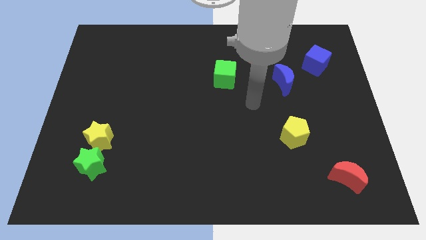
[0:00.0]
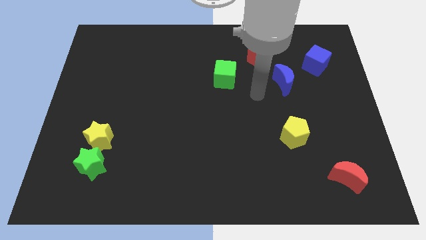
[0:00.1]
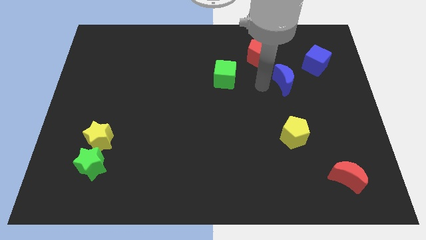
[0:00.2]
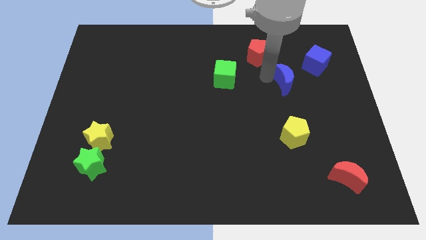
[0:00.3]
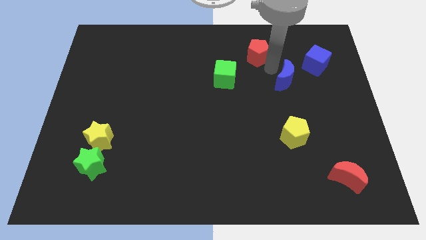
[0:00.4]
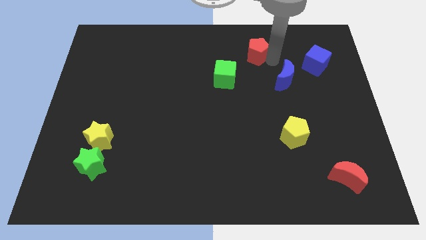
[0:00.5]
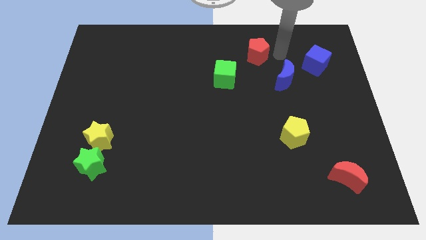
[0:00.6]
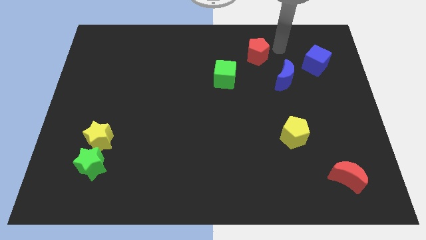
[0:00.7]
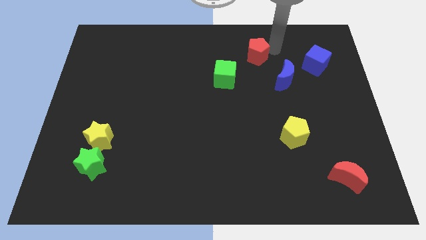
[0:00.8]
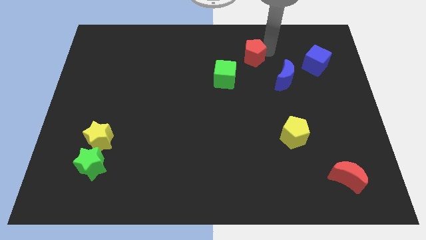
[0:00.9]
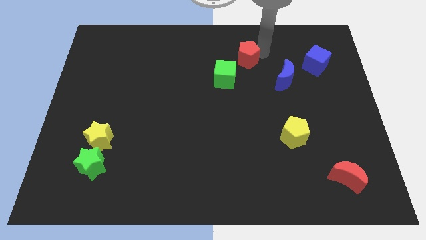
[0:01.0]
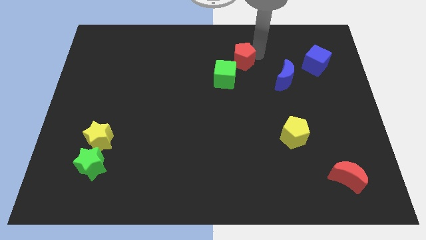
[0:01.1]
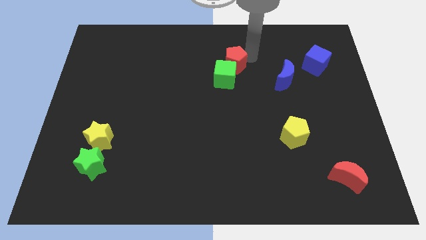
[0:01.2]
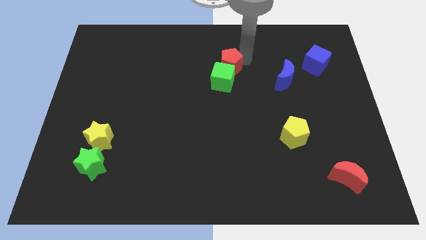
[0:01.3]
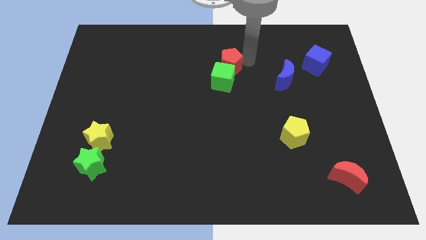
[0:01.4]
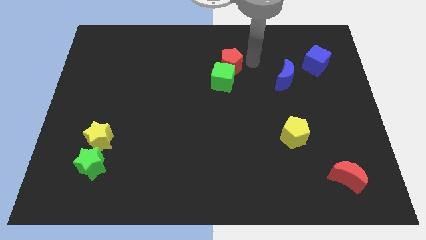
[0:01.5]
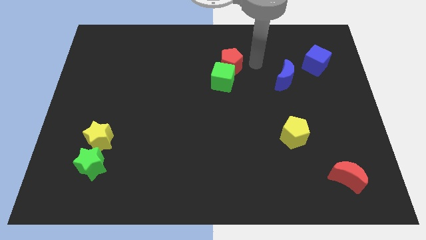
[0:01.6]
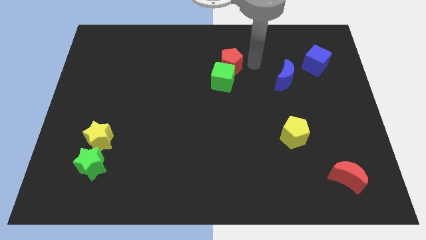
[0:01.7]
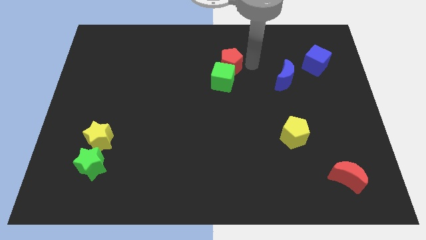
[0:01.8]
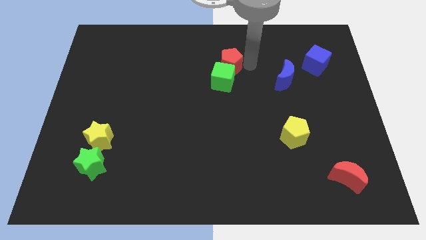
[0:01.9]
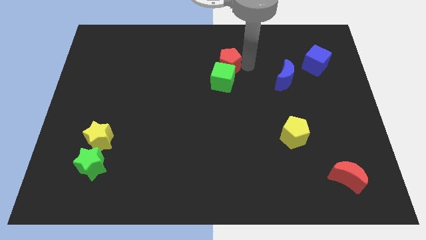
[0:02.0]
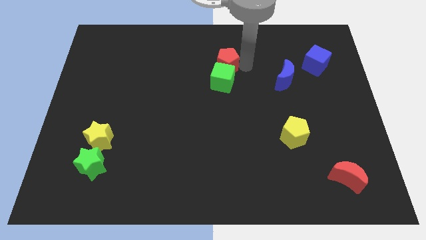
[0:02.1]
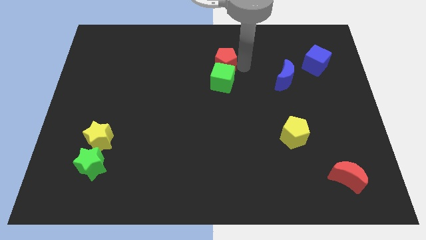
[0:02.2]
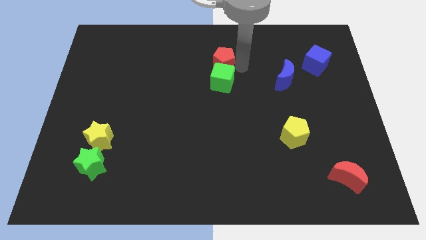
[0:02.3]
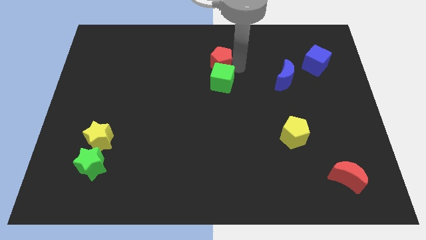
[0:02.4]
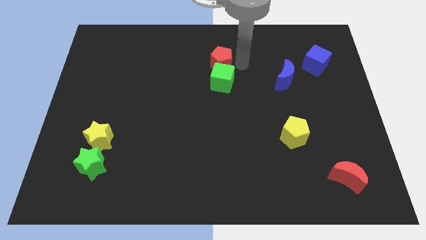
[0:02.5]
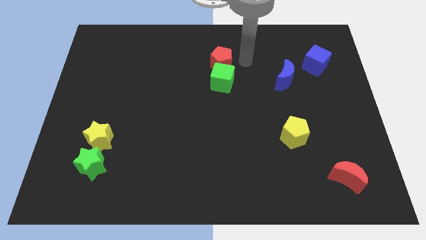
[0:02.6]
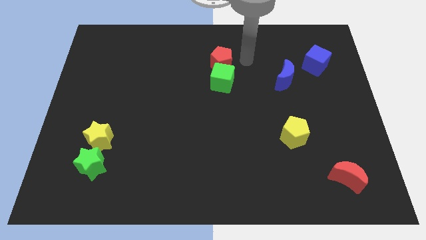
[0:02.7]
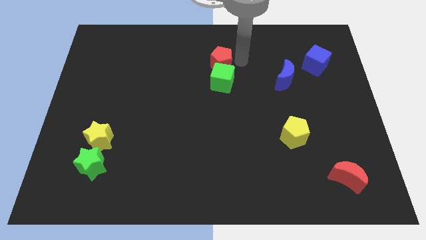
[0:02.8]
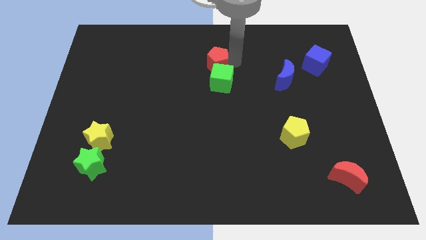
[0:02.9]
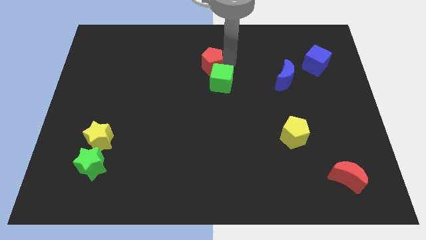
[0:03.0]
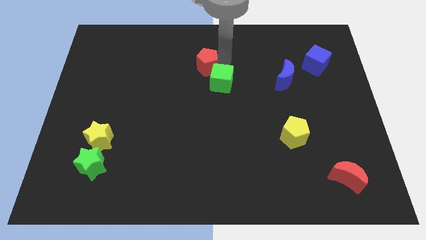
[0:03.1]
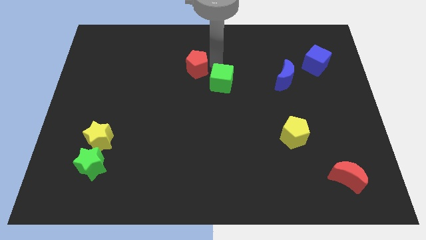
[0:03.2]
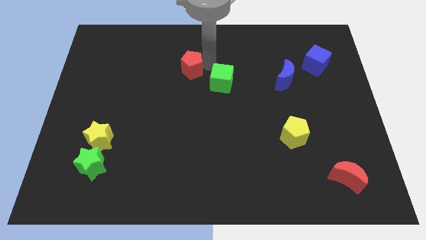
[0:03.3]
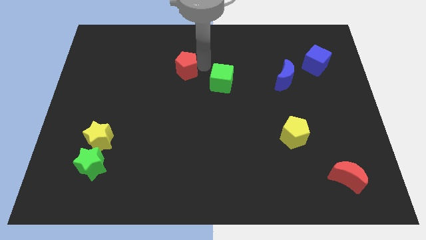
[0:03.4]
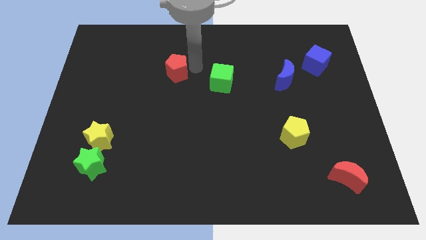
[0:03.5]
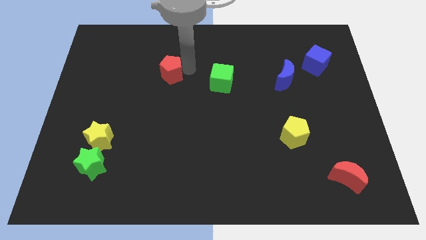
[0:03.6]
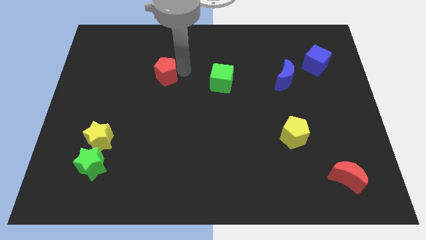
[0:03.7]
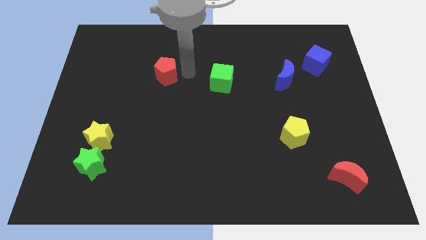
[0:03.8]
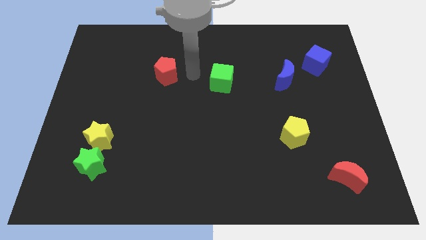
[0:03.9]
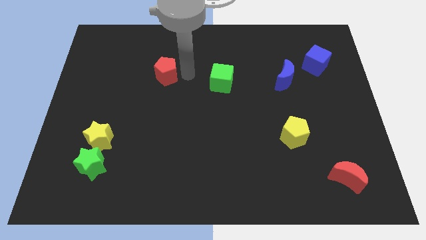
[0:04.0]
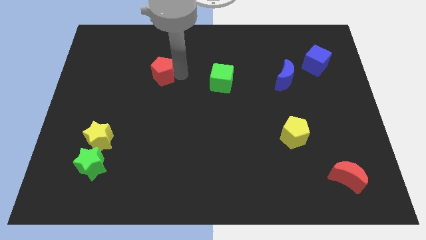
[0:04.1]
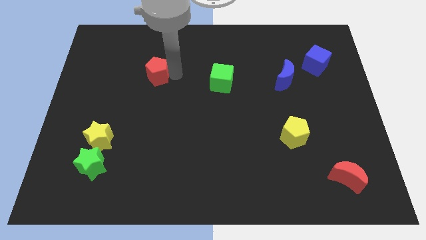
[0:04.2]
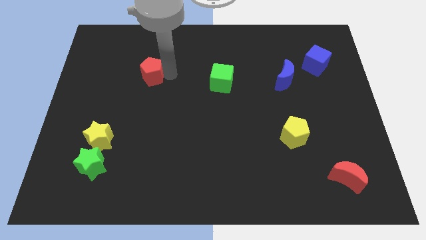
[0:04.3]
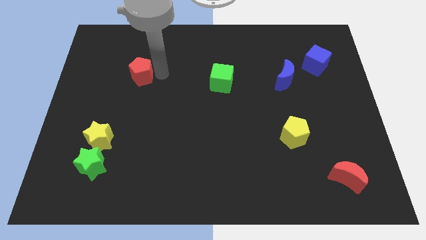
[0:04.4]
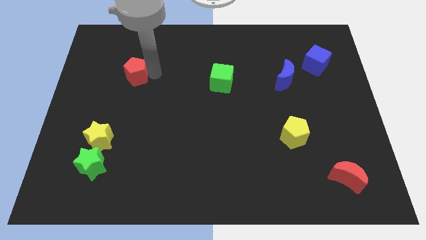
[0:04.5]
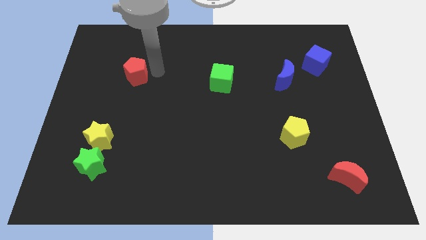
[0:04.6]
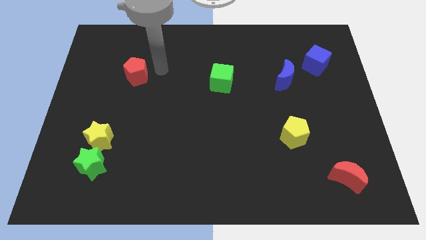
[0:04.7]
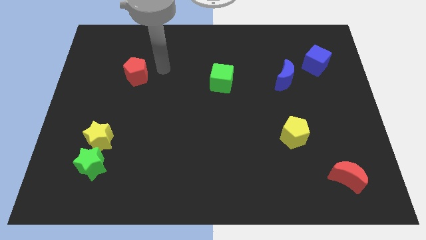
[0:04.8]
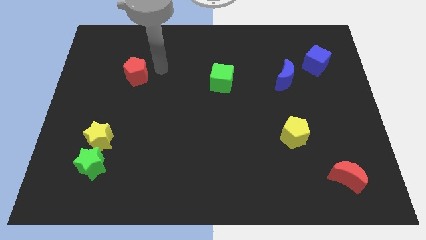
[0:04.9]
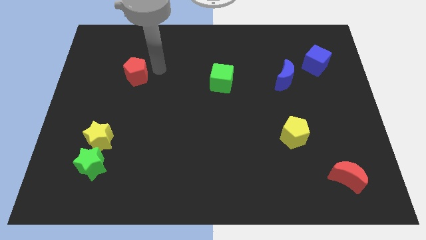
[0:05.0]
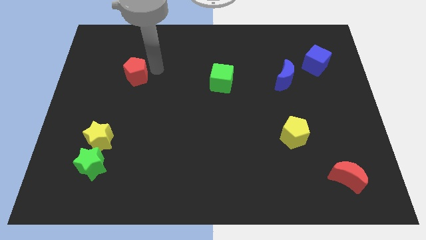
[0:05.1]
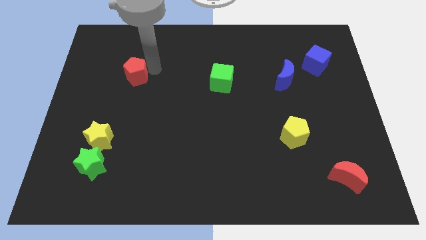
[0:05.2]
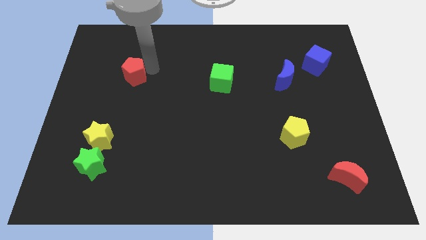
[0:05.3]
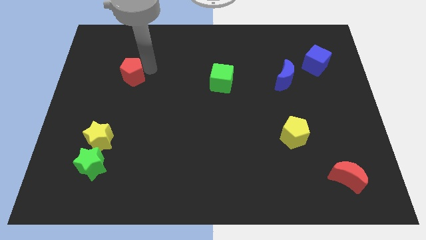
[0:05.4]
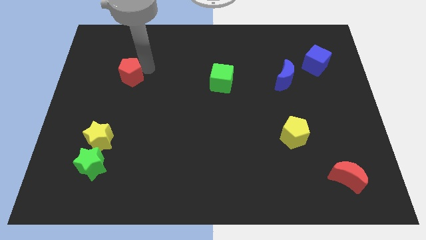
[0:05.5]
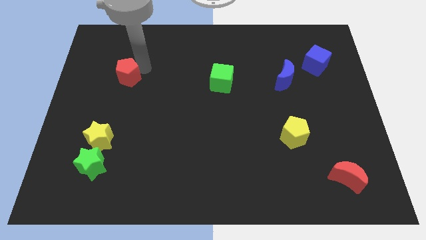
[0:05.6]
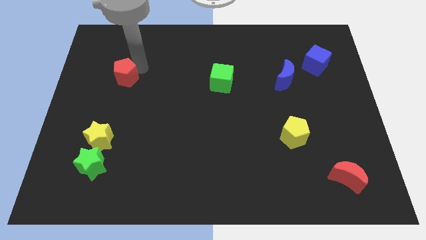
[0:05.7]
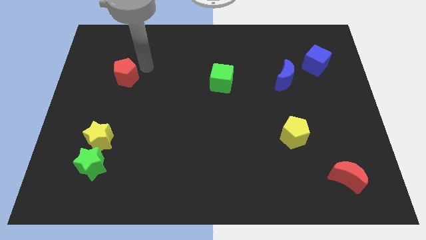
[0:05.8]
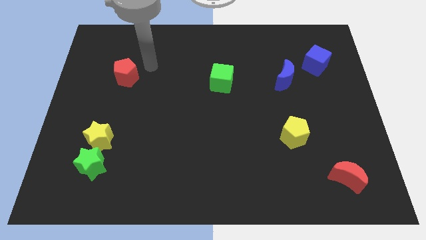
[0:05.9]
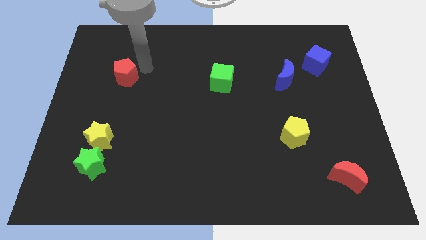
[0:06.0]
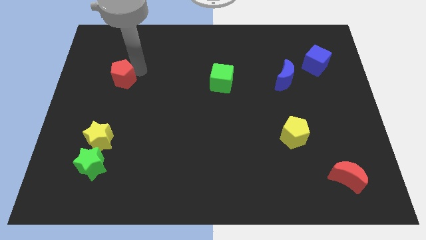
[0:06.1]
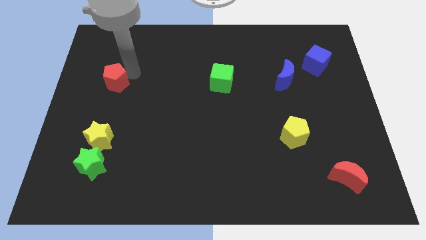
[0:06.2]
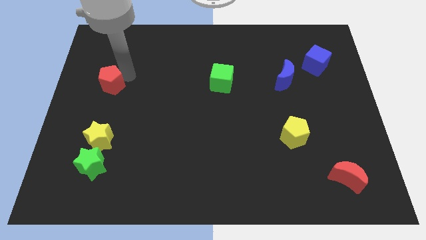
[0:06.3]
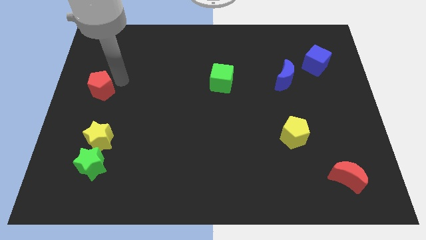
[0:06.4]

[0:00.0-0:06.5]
move the red pentagon to the left side
